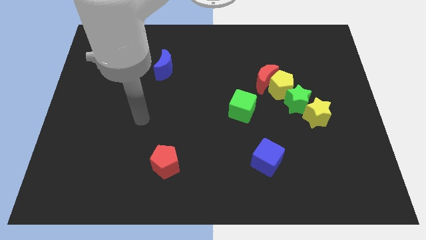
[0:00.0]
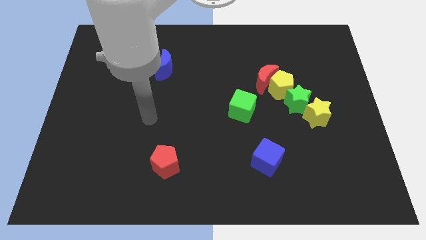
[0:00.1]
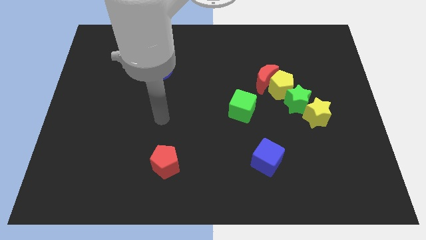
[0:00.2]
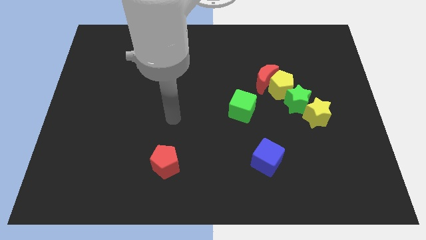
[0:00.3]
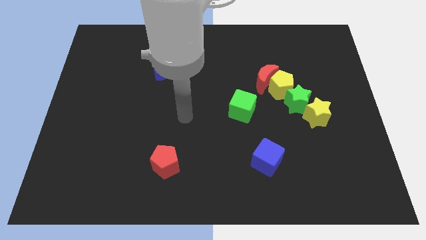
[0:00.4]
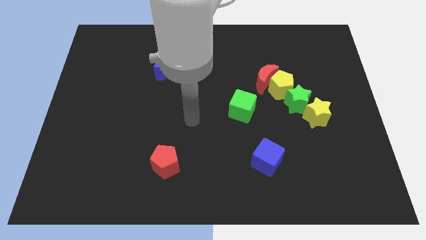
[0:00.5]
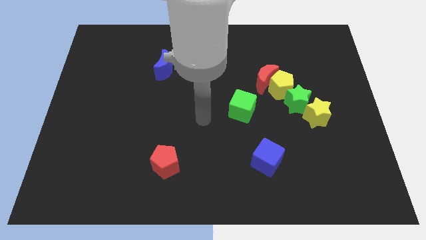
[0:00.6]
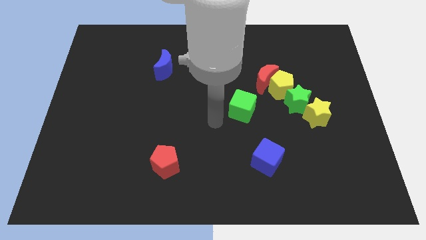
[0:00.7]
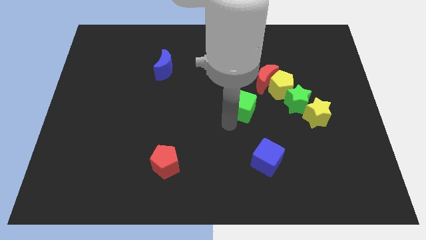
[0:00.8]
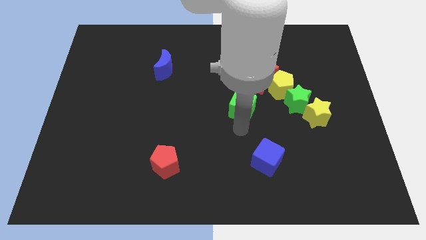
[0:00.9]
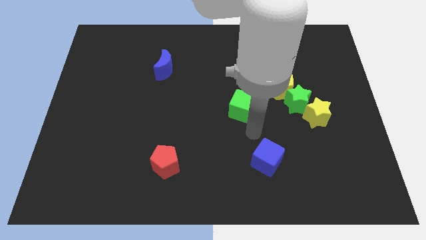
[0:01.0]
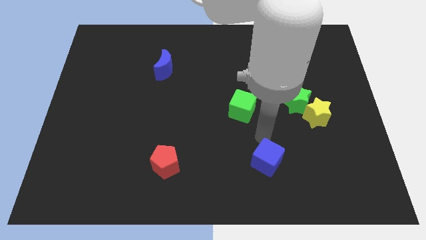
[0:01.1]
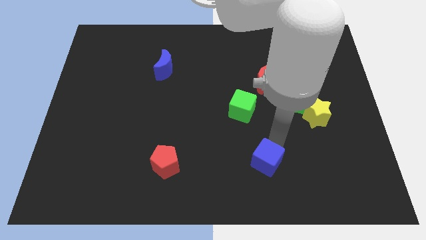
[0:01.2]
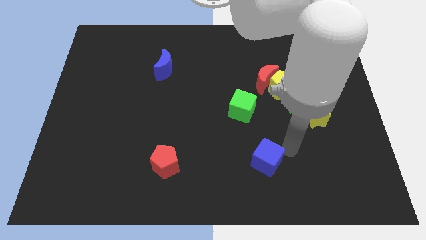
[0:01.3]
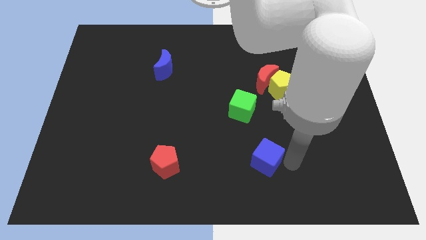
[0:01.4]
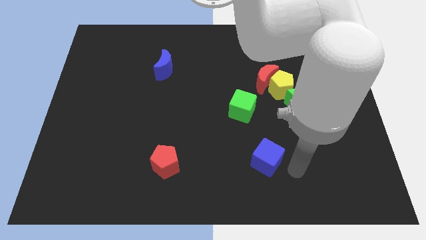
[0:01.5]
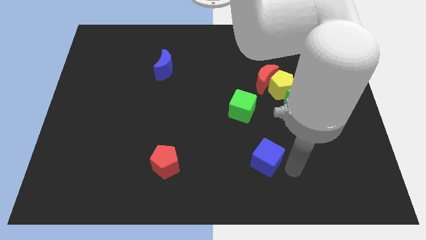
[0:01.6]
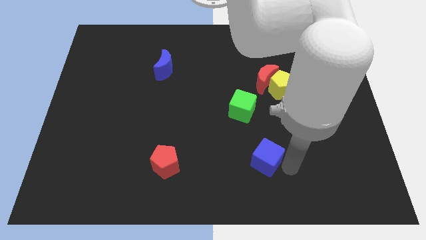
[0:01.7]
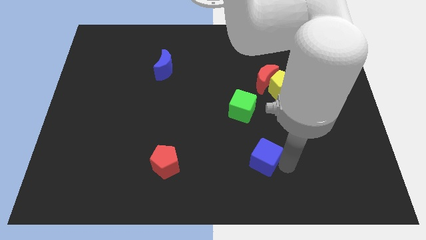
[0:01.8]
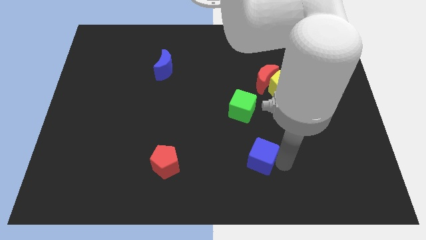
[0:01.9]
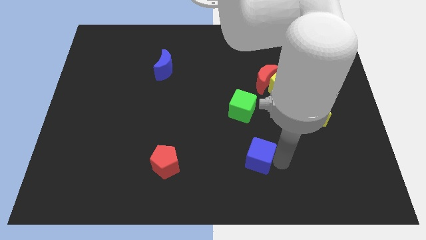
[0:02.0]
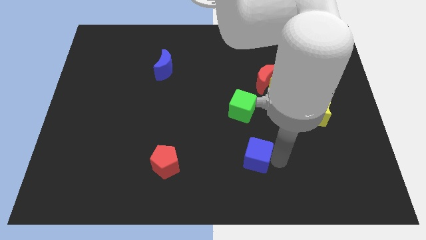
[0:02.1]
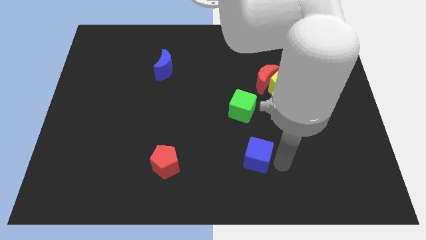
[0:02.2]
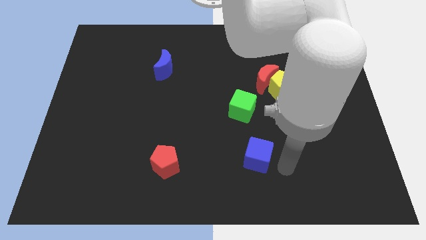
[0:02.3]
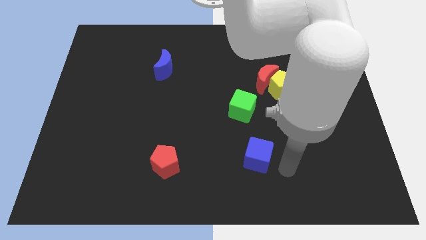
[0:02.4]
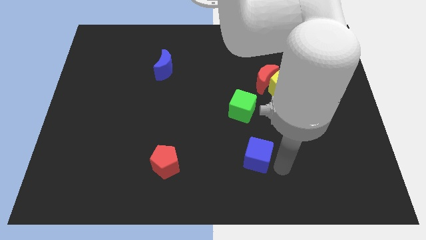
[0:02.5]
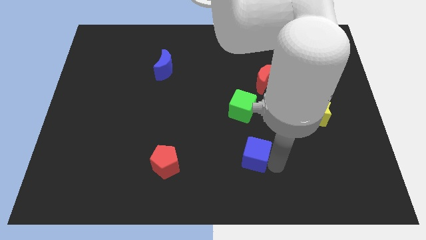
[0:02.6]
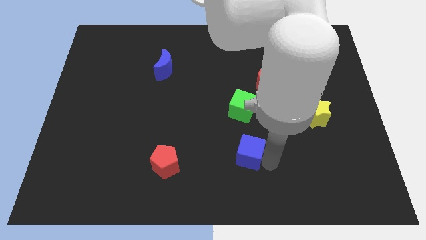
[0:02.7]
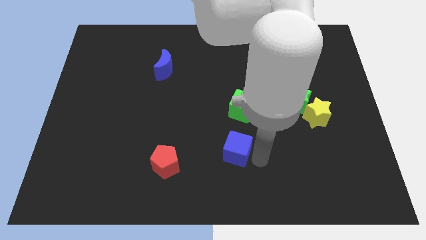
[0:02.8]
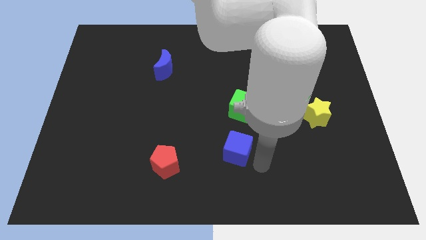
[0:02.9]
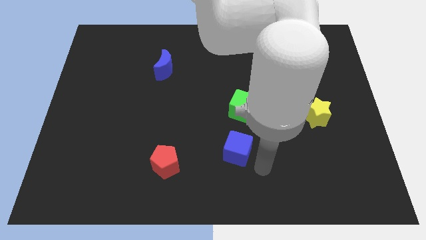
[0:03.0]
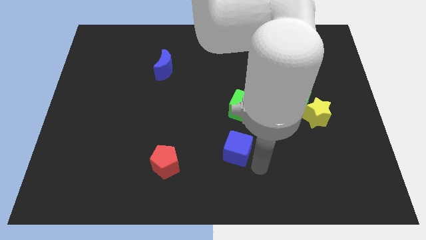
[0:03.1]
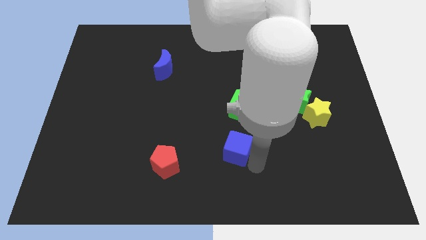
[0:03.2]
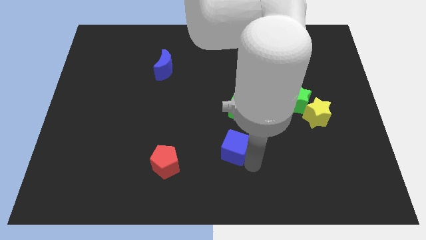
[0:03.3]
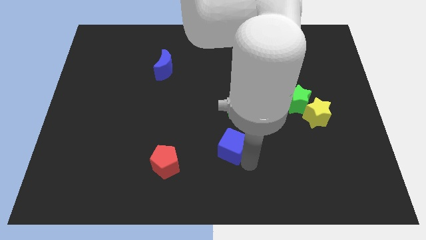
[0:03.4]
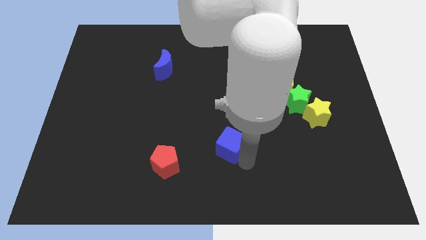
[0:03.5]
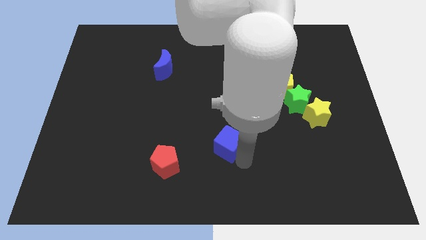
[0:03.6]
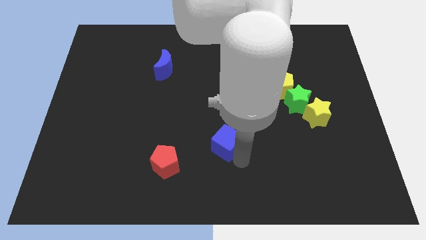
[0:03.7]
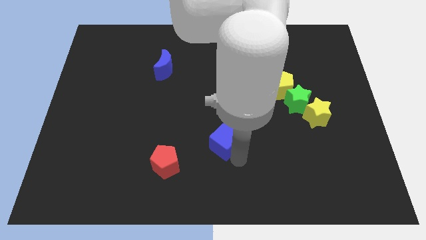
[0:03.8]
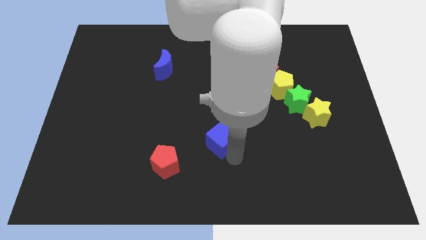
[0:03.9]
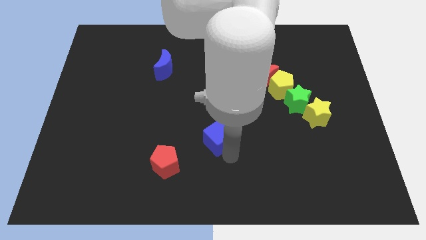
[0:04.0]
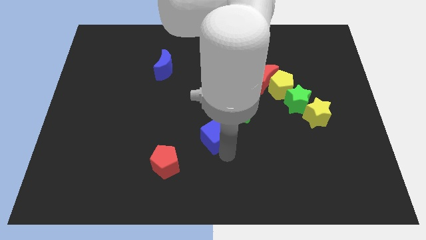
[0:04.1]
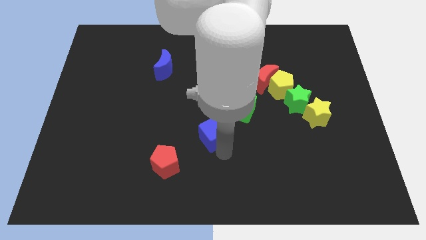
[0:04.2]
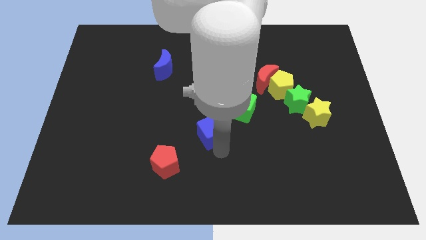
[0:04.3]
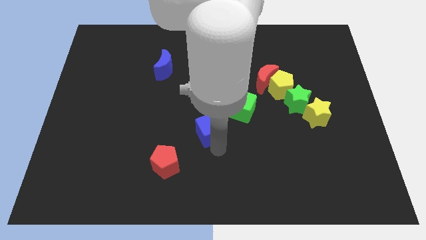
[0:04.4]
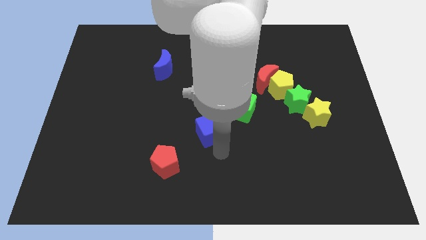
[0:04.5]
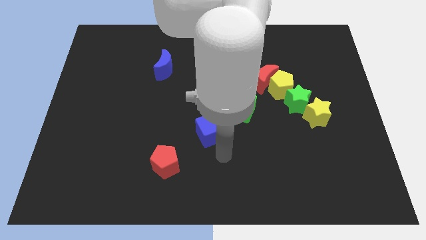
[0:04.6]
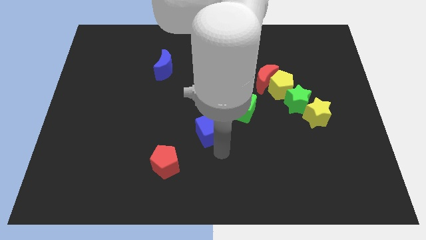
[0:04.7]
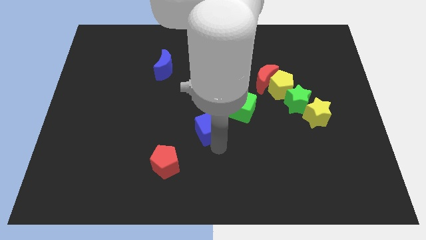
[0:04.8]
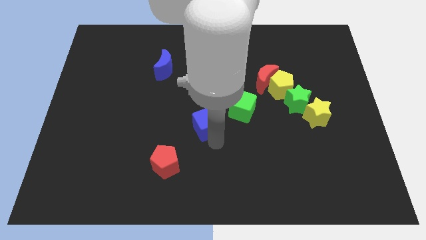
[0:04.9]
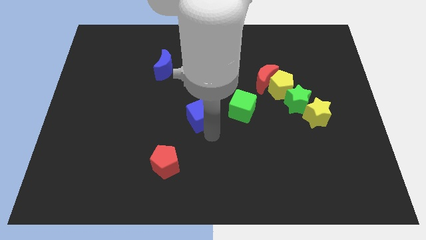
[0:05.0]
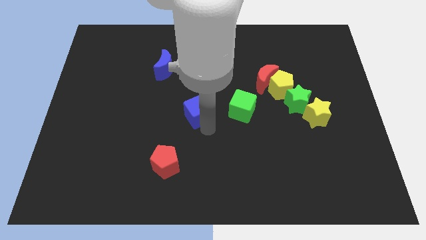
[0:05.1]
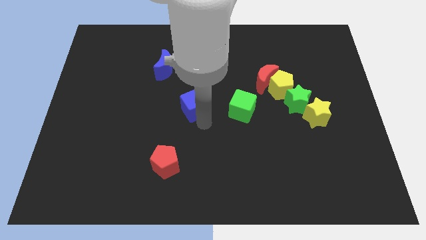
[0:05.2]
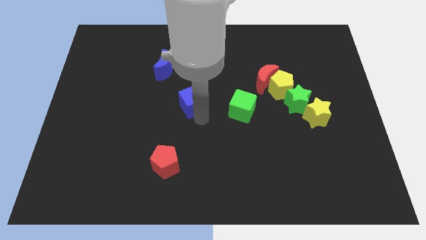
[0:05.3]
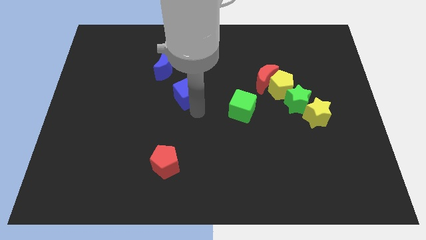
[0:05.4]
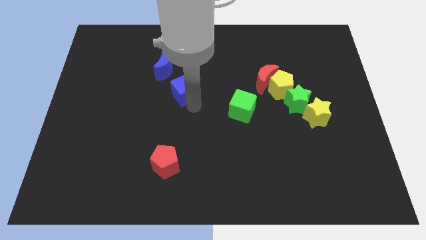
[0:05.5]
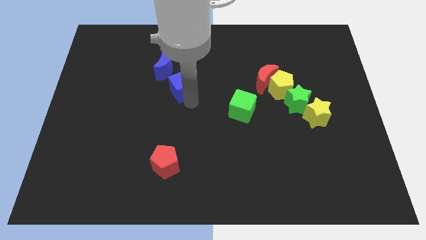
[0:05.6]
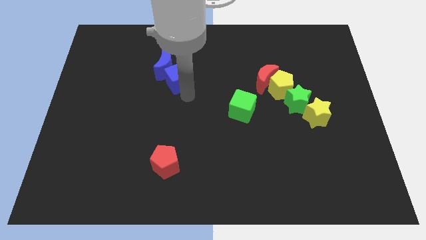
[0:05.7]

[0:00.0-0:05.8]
move the blue cube towards the blue moon

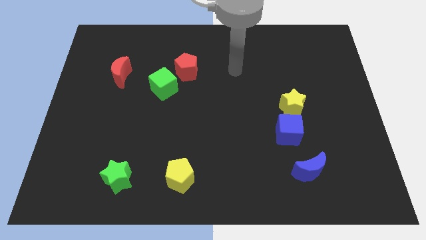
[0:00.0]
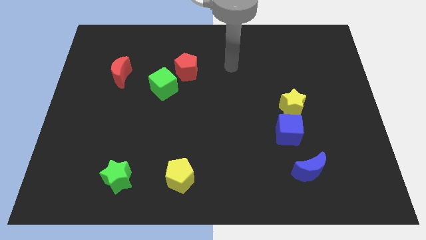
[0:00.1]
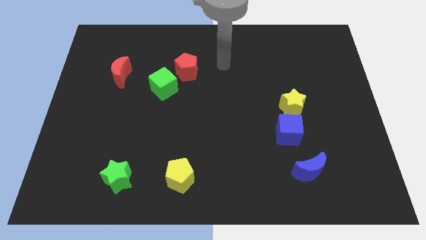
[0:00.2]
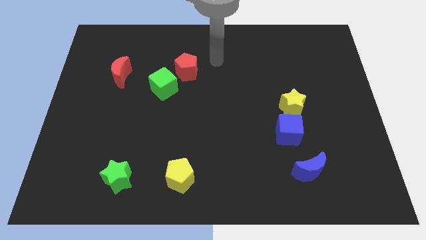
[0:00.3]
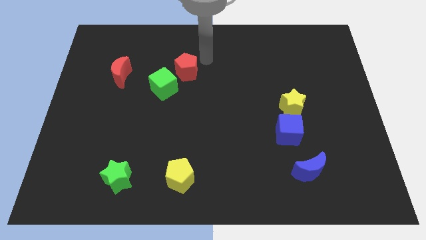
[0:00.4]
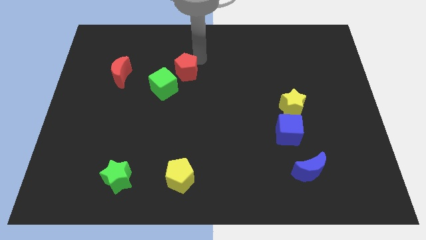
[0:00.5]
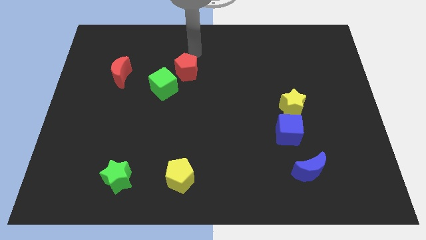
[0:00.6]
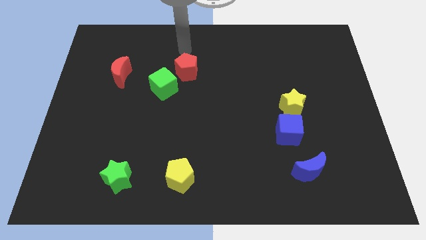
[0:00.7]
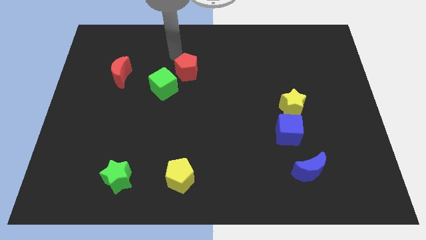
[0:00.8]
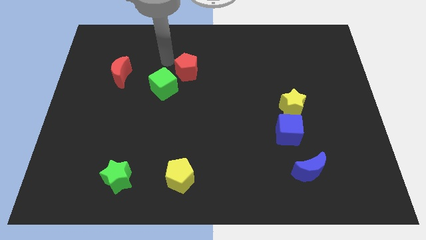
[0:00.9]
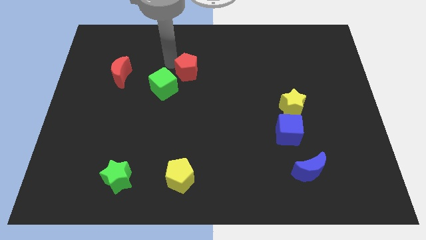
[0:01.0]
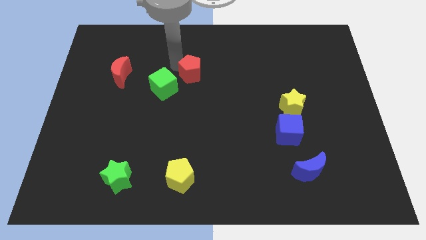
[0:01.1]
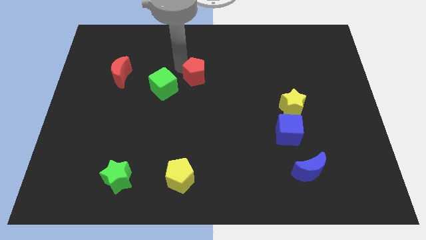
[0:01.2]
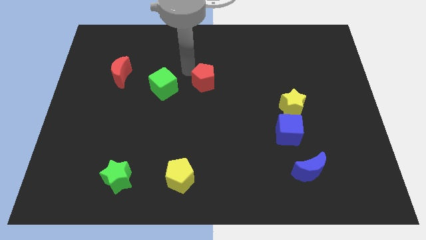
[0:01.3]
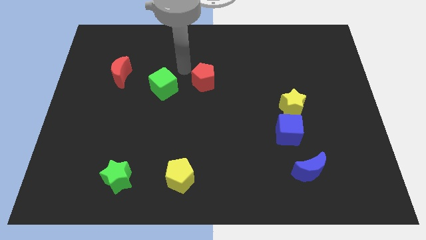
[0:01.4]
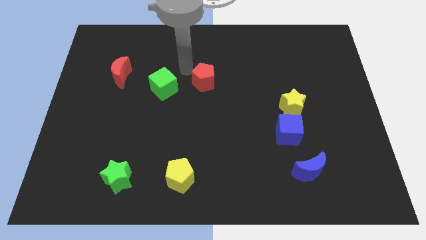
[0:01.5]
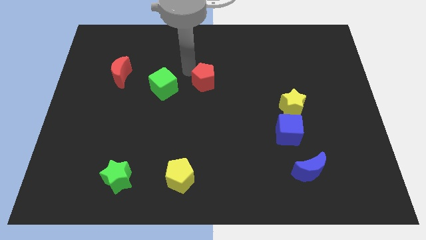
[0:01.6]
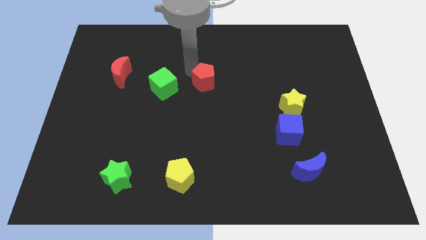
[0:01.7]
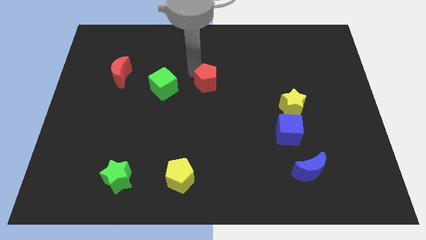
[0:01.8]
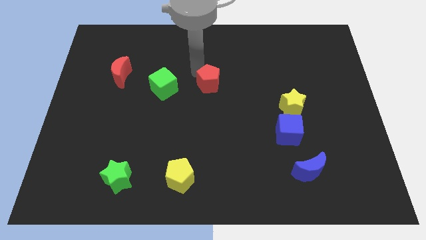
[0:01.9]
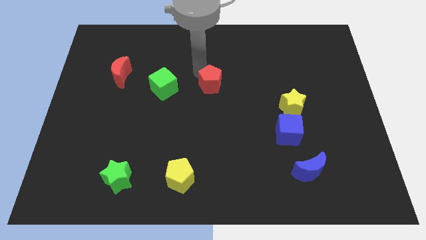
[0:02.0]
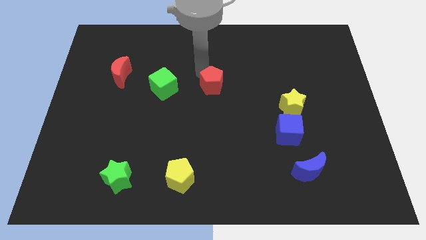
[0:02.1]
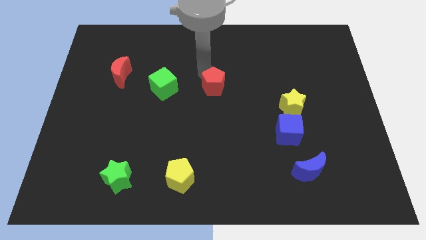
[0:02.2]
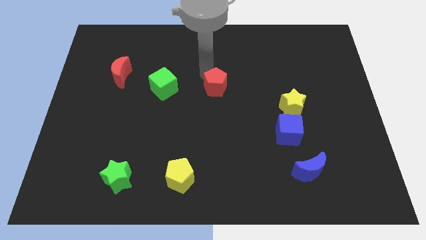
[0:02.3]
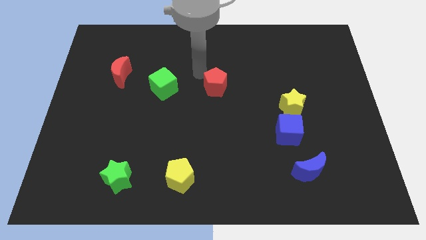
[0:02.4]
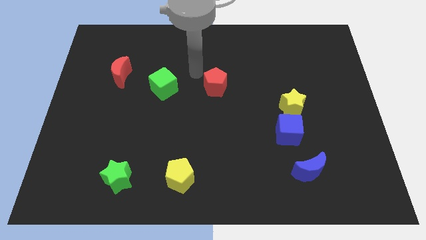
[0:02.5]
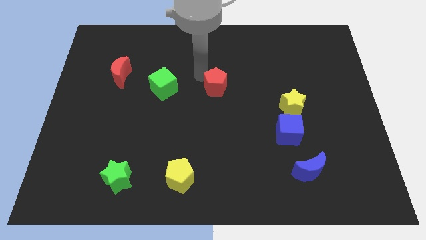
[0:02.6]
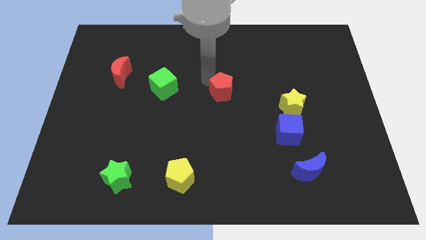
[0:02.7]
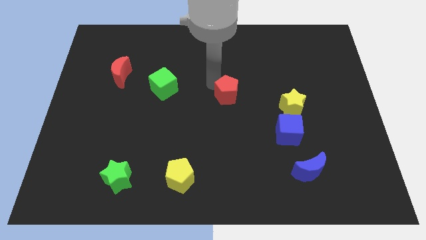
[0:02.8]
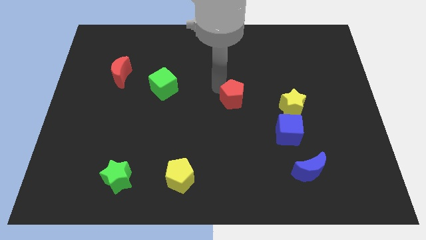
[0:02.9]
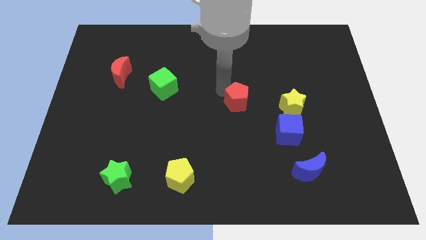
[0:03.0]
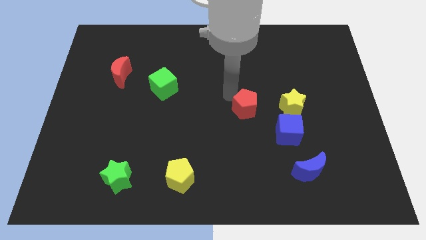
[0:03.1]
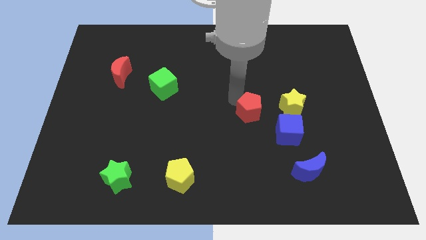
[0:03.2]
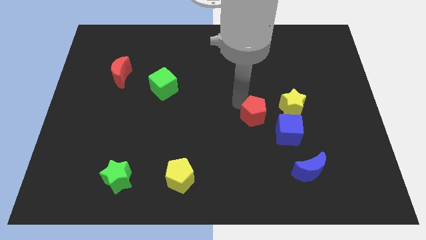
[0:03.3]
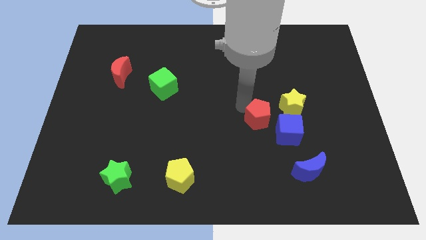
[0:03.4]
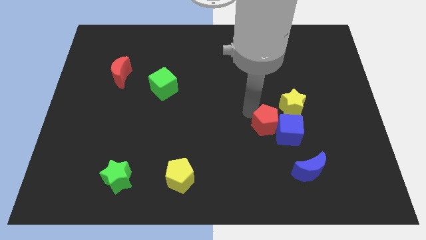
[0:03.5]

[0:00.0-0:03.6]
push the red pentagon close to the blue cube
